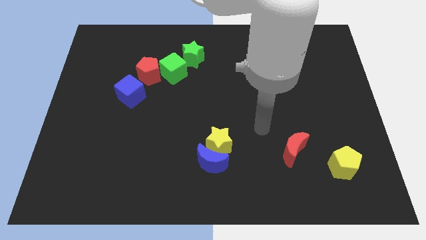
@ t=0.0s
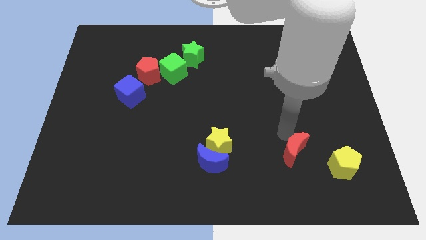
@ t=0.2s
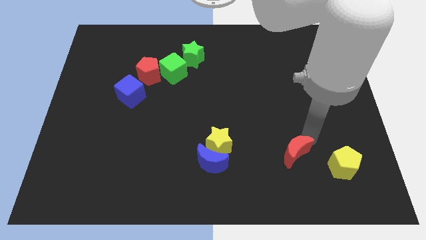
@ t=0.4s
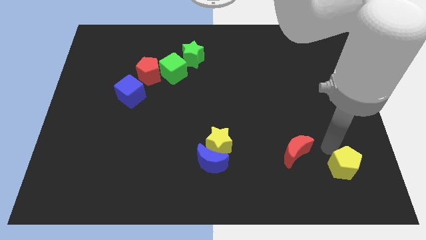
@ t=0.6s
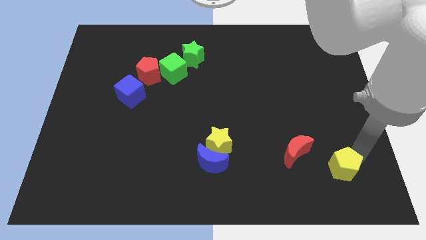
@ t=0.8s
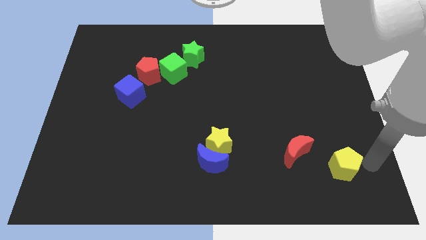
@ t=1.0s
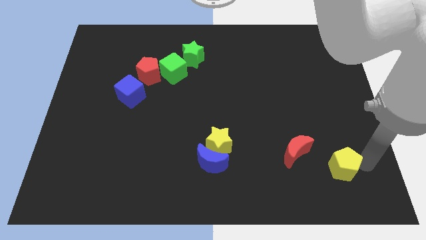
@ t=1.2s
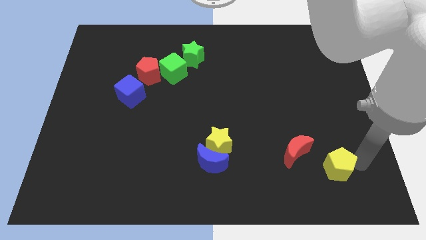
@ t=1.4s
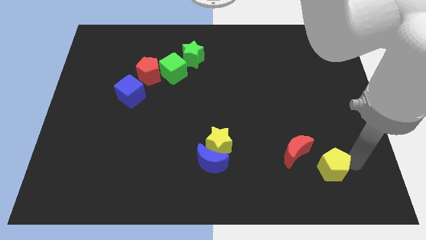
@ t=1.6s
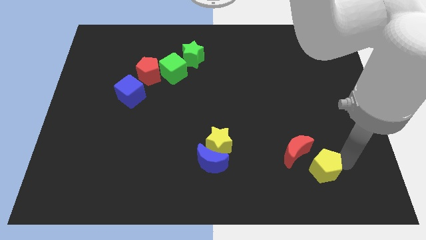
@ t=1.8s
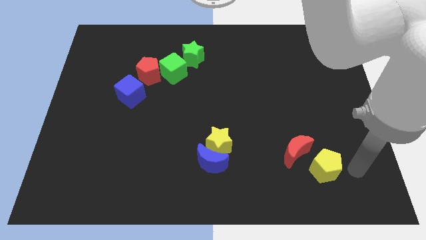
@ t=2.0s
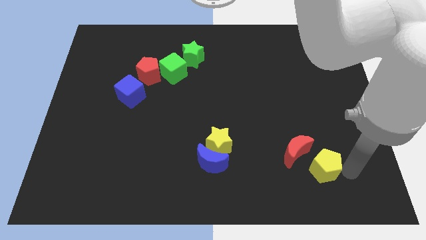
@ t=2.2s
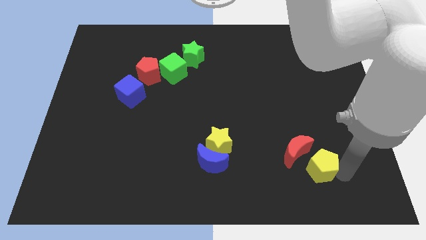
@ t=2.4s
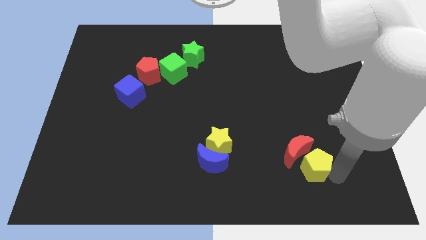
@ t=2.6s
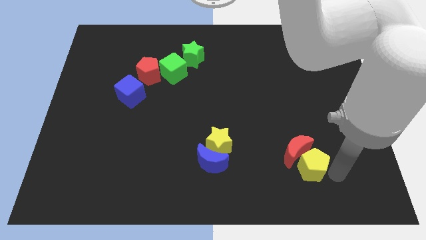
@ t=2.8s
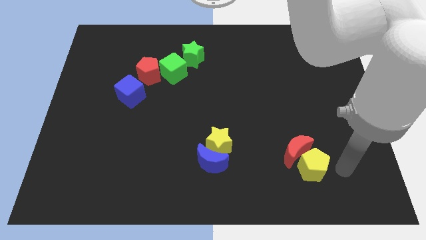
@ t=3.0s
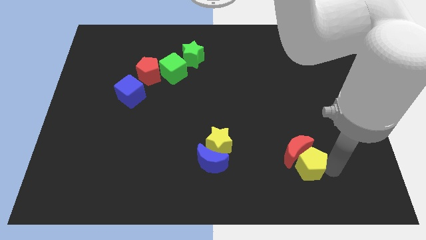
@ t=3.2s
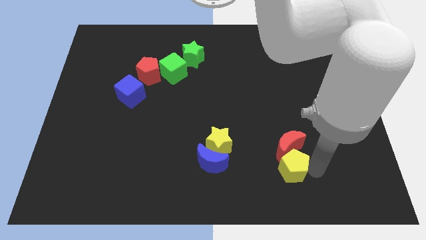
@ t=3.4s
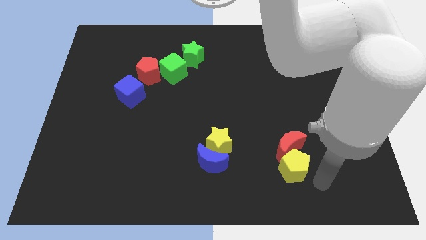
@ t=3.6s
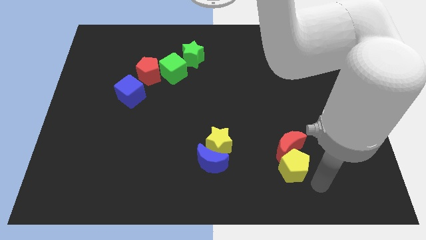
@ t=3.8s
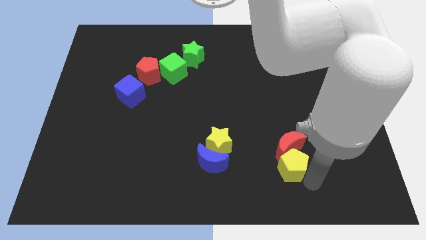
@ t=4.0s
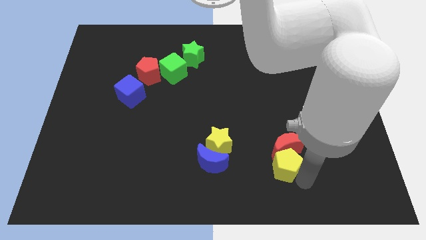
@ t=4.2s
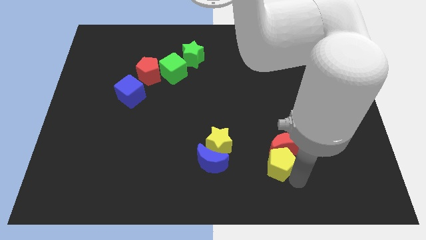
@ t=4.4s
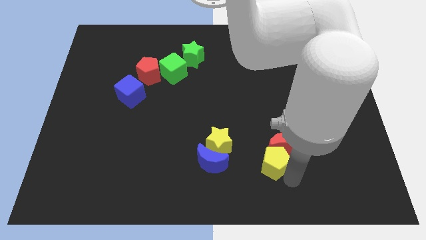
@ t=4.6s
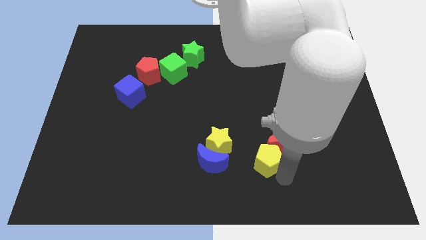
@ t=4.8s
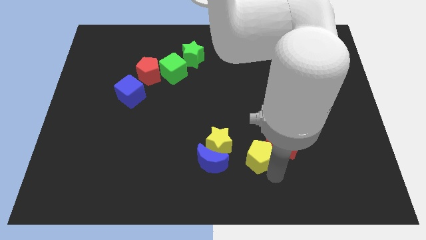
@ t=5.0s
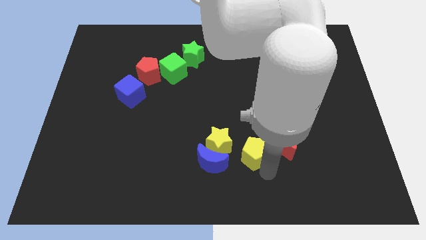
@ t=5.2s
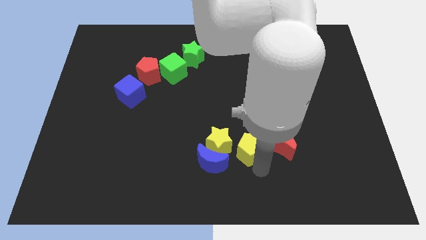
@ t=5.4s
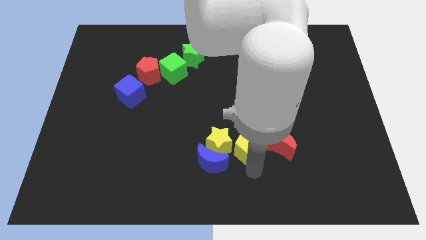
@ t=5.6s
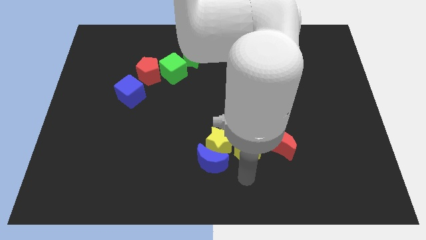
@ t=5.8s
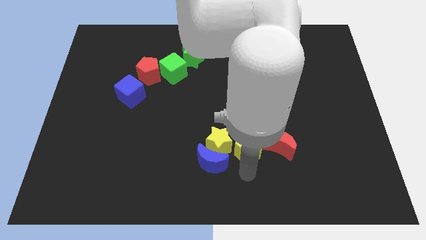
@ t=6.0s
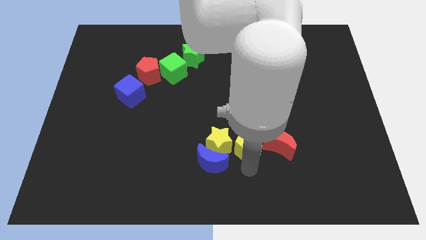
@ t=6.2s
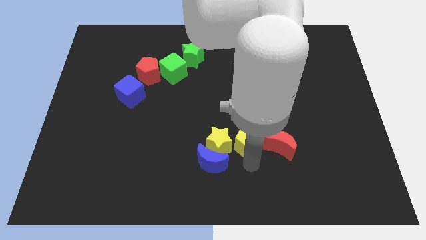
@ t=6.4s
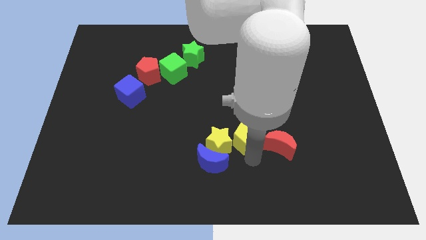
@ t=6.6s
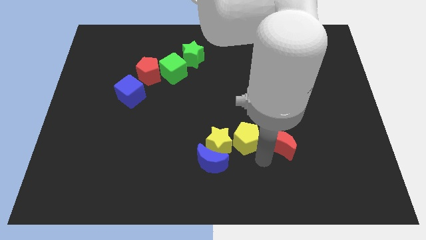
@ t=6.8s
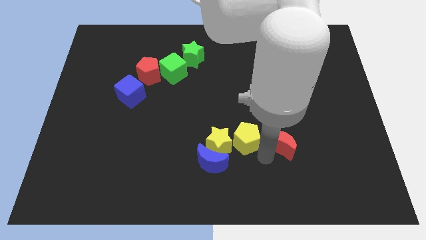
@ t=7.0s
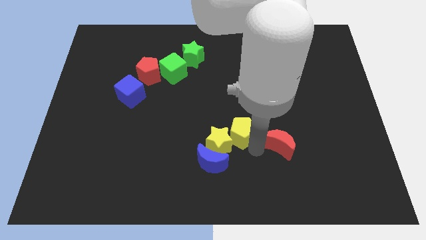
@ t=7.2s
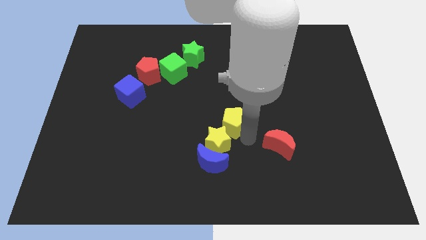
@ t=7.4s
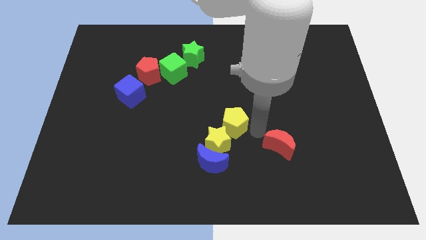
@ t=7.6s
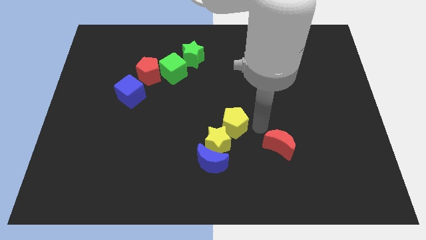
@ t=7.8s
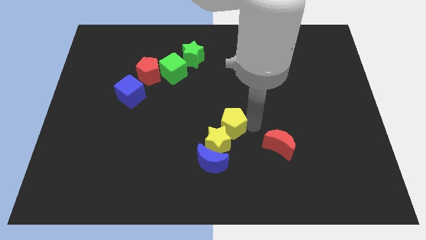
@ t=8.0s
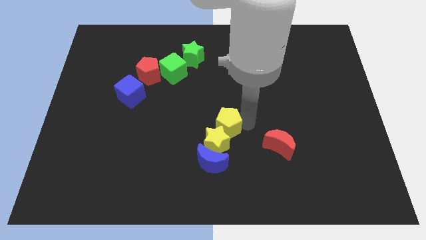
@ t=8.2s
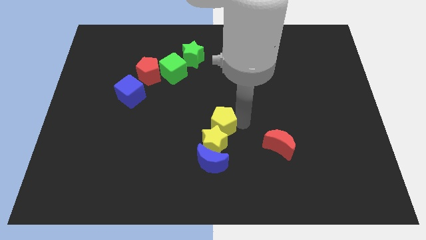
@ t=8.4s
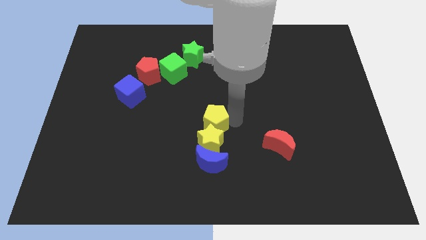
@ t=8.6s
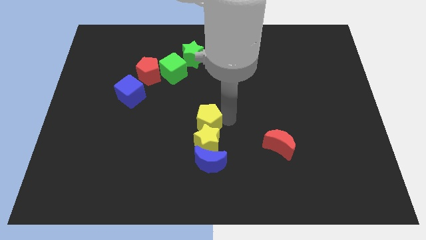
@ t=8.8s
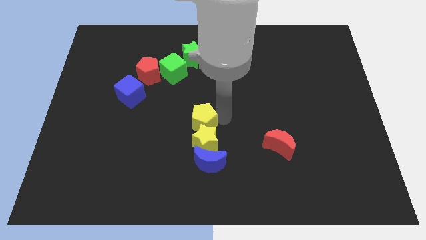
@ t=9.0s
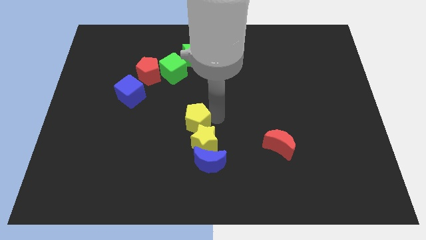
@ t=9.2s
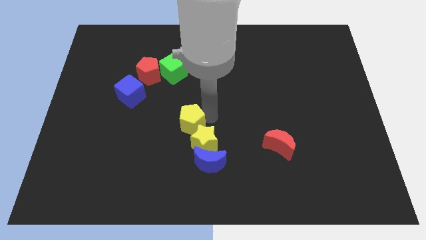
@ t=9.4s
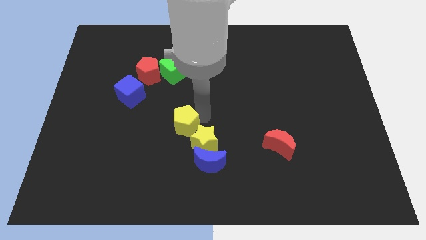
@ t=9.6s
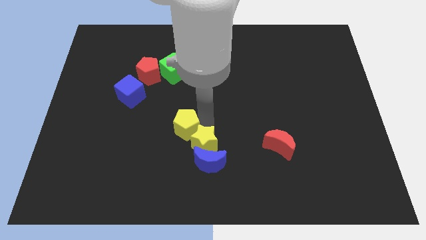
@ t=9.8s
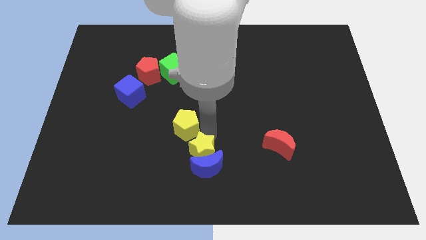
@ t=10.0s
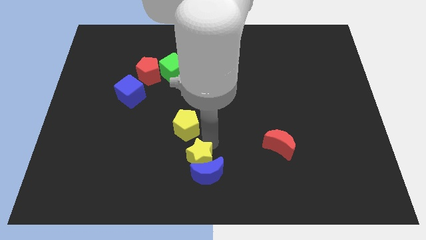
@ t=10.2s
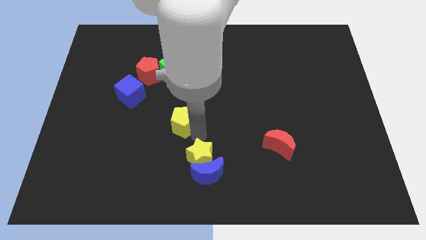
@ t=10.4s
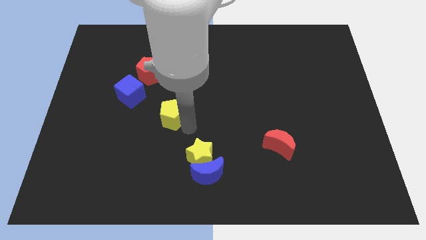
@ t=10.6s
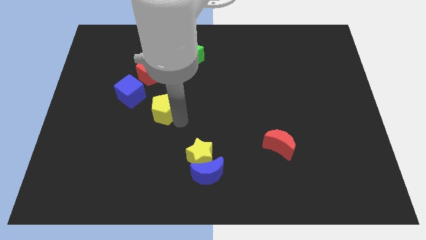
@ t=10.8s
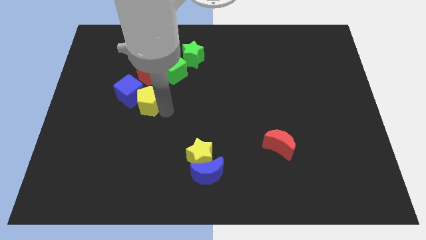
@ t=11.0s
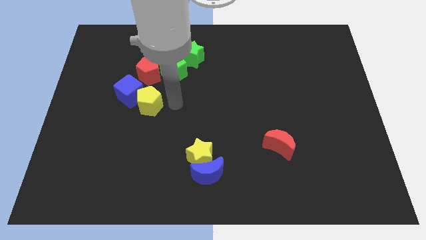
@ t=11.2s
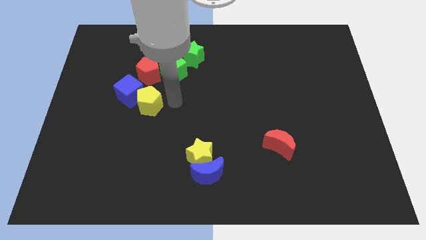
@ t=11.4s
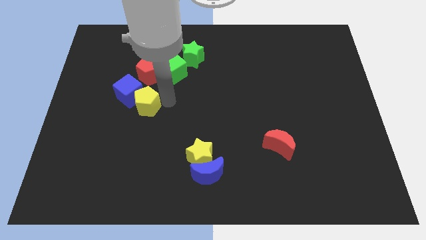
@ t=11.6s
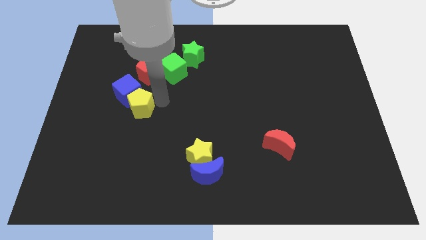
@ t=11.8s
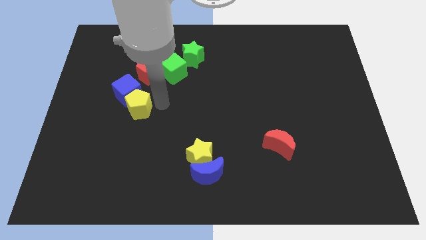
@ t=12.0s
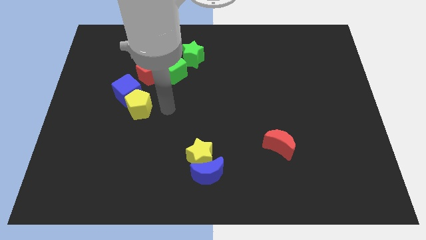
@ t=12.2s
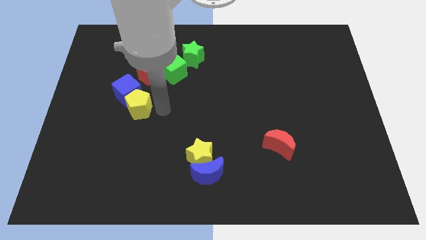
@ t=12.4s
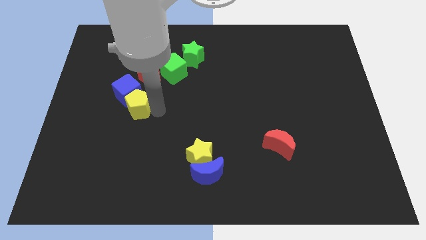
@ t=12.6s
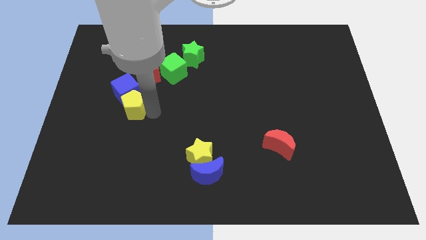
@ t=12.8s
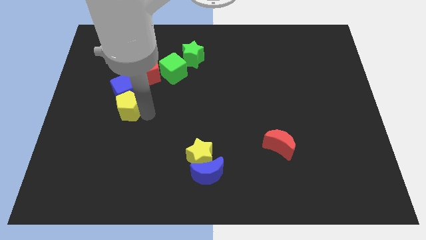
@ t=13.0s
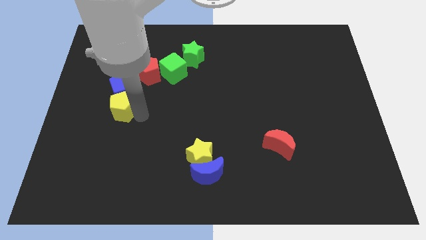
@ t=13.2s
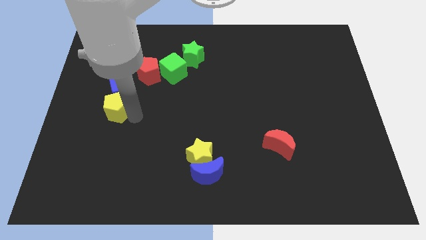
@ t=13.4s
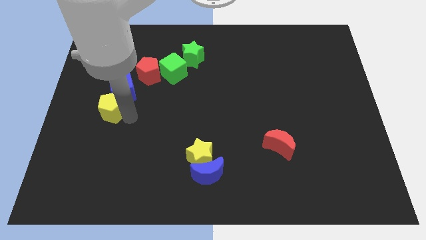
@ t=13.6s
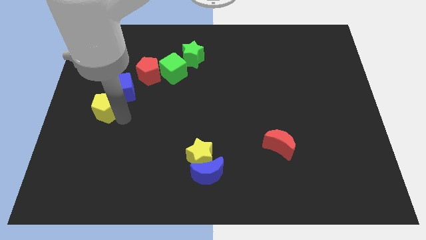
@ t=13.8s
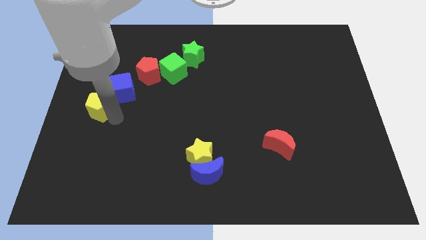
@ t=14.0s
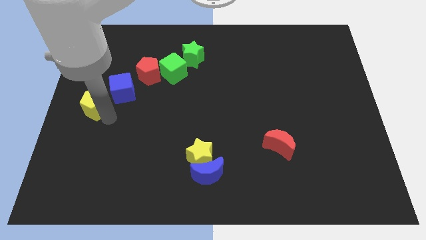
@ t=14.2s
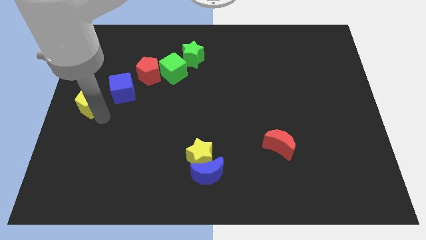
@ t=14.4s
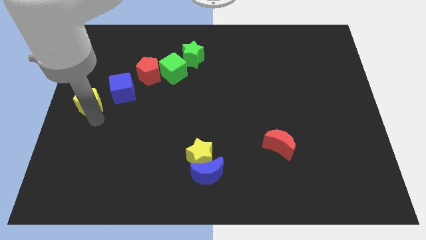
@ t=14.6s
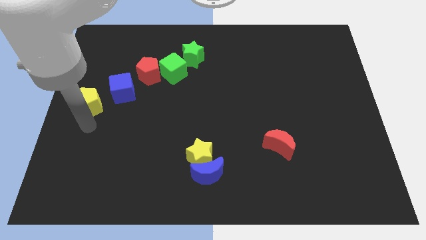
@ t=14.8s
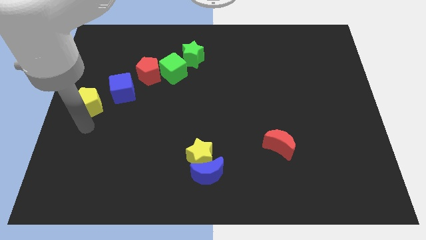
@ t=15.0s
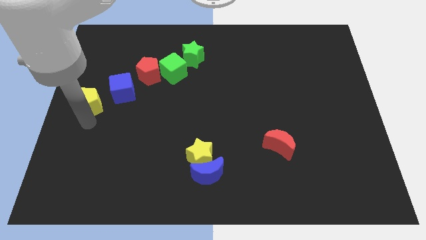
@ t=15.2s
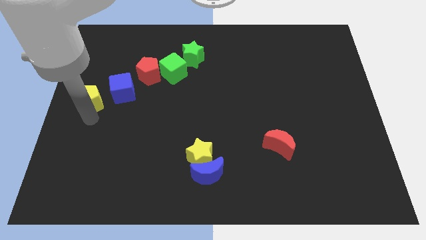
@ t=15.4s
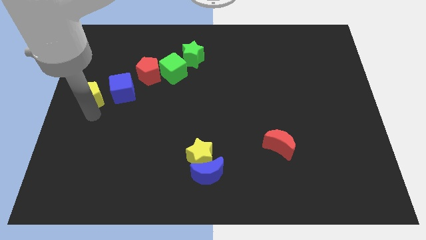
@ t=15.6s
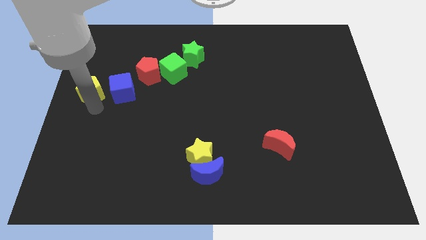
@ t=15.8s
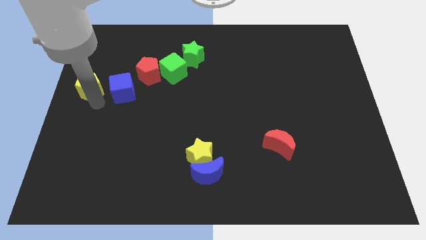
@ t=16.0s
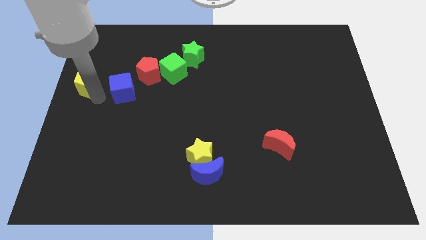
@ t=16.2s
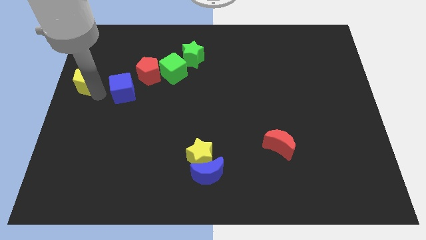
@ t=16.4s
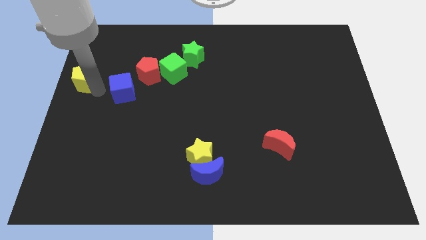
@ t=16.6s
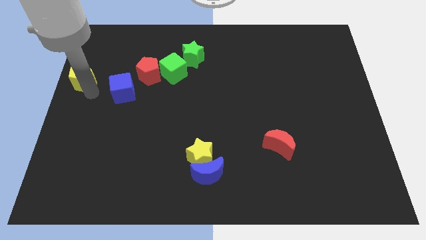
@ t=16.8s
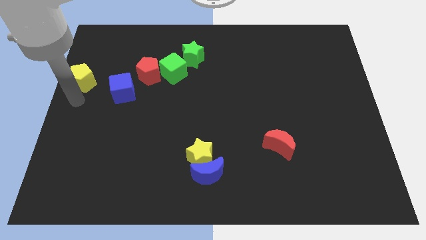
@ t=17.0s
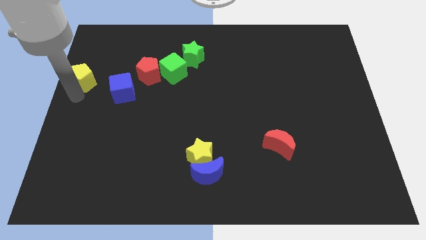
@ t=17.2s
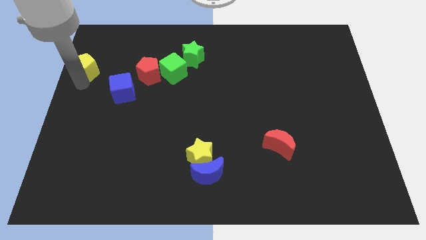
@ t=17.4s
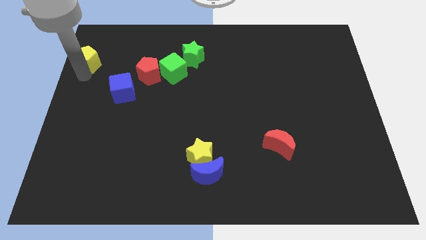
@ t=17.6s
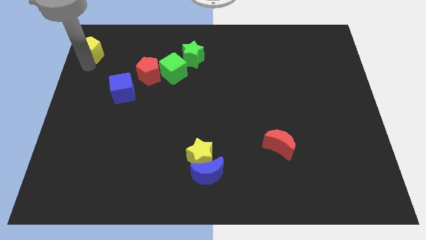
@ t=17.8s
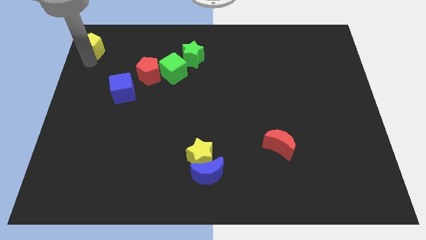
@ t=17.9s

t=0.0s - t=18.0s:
slide the yellow pentagon to the top left corner
